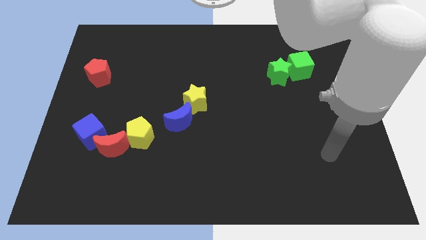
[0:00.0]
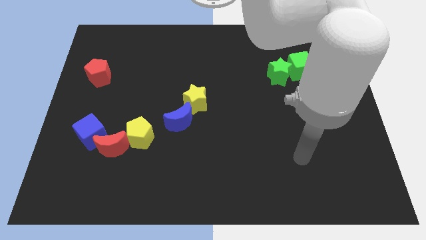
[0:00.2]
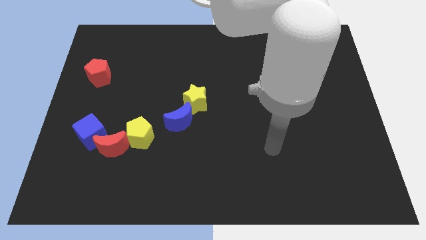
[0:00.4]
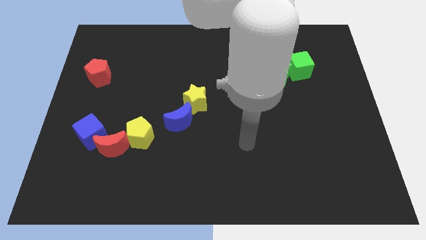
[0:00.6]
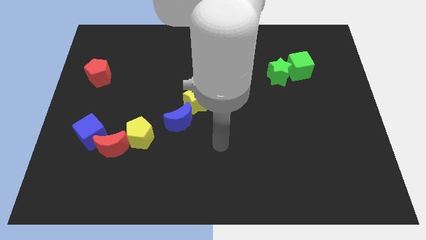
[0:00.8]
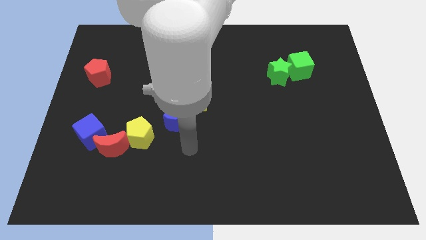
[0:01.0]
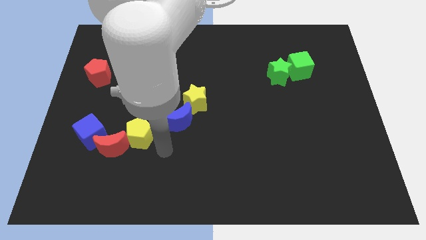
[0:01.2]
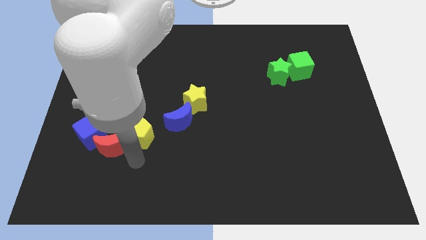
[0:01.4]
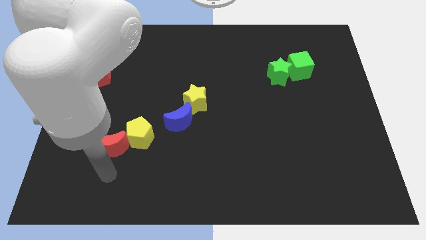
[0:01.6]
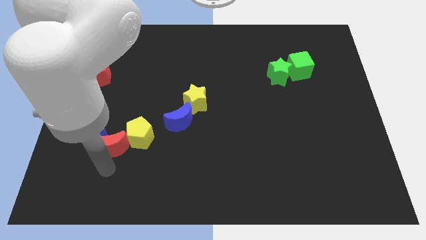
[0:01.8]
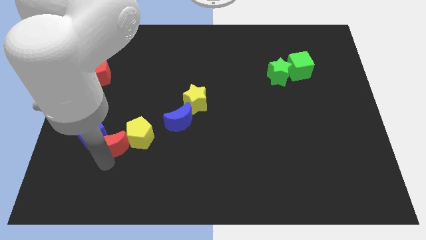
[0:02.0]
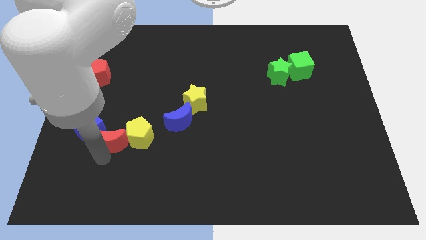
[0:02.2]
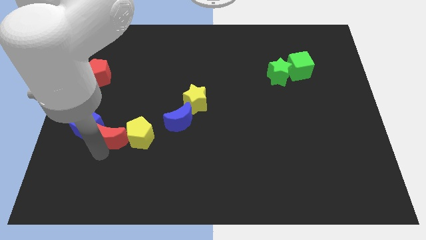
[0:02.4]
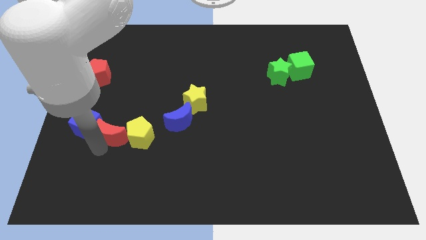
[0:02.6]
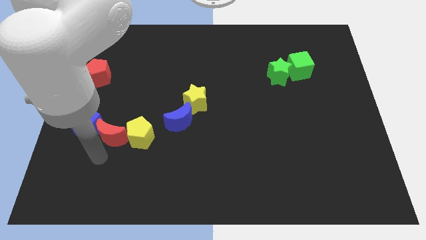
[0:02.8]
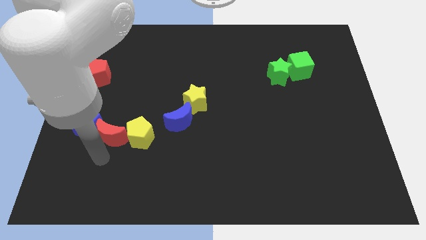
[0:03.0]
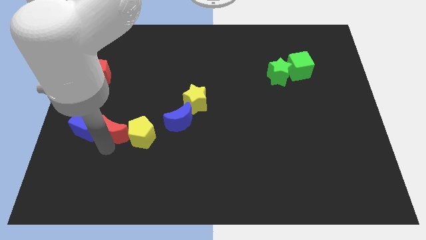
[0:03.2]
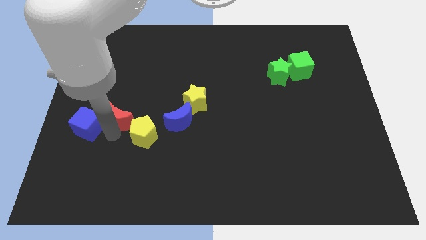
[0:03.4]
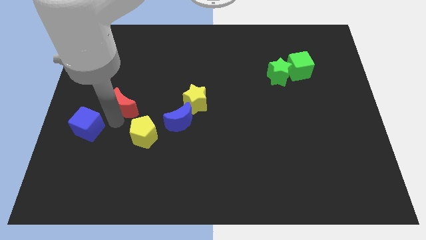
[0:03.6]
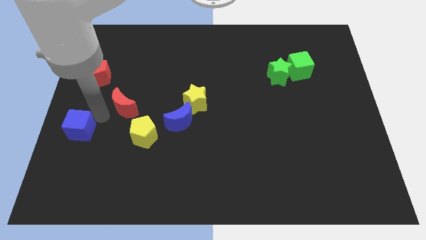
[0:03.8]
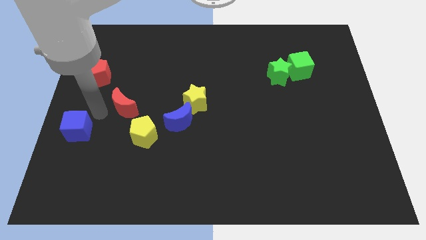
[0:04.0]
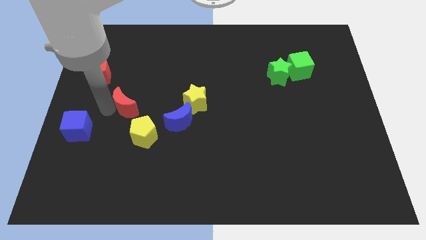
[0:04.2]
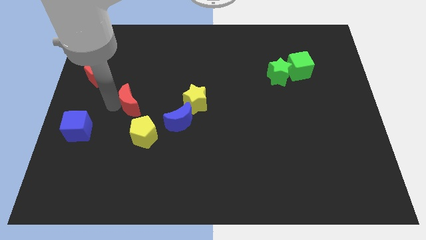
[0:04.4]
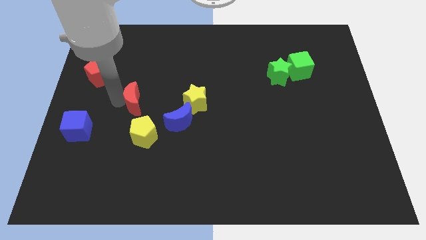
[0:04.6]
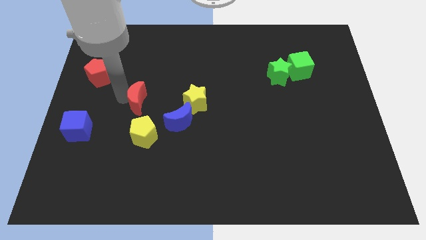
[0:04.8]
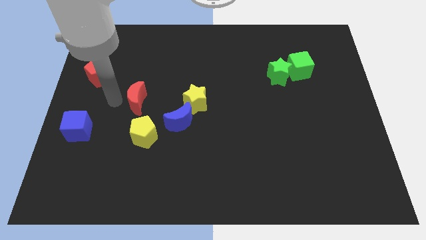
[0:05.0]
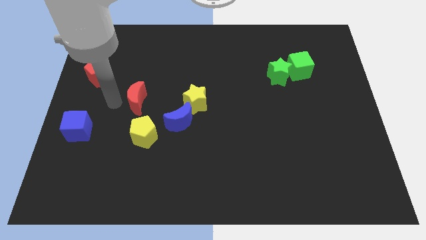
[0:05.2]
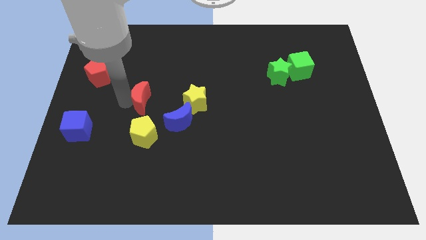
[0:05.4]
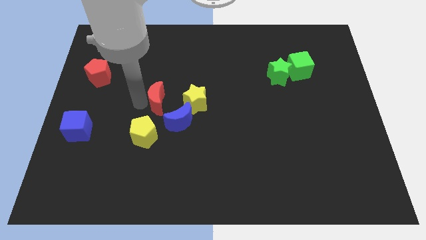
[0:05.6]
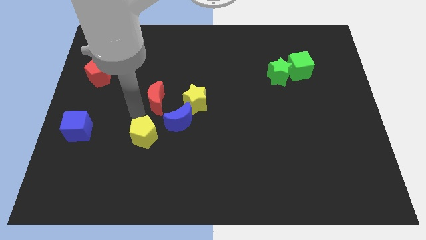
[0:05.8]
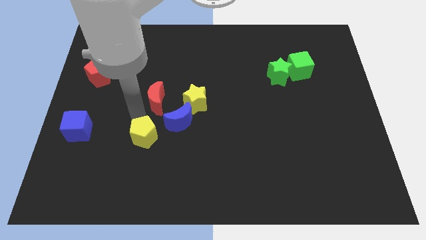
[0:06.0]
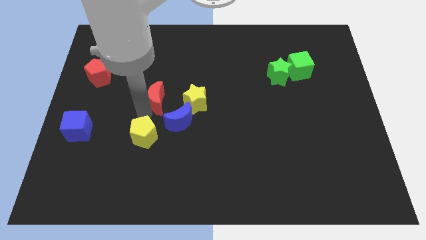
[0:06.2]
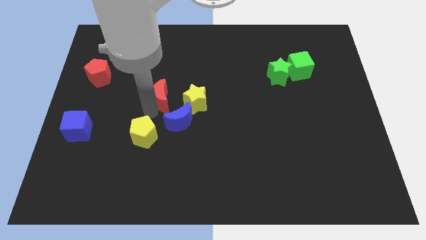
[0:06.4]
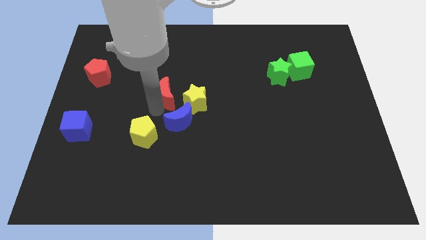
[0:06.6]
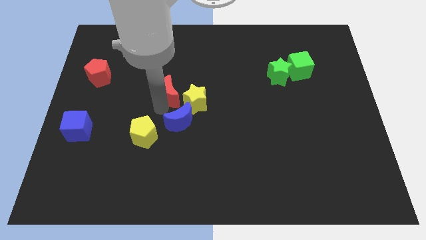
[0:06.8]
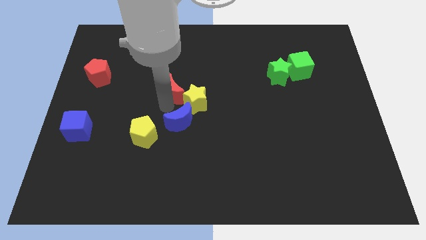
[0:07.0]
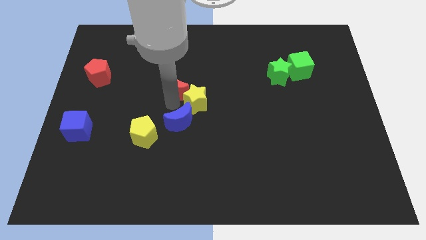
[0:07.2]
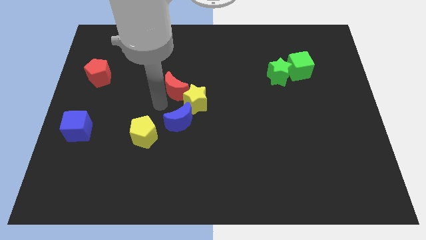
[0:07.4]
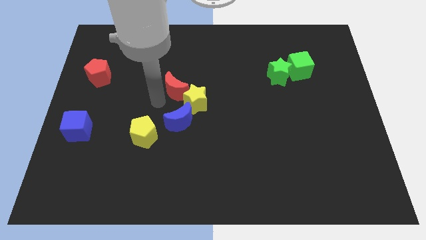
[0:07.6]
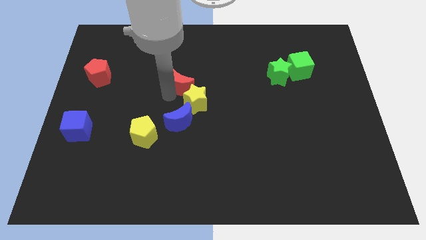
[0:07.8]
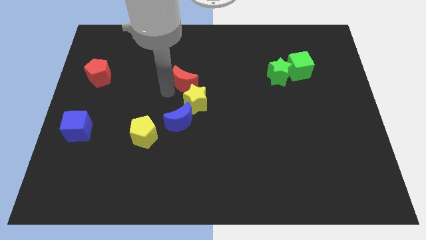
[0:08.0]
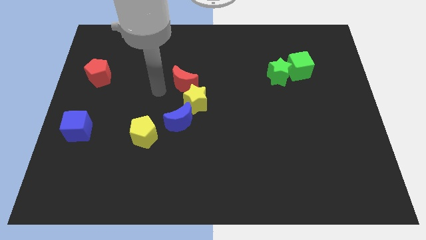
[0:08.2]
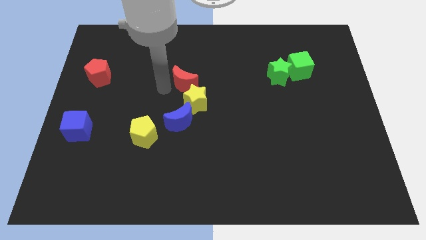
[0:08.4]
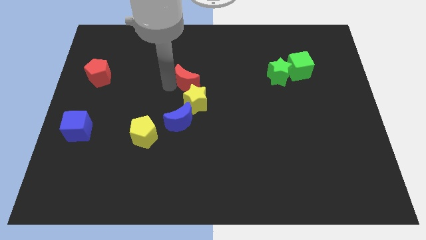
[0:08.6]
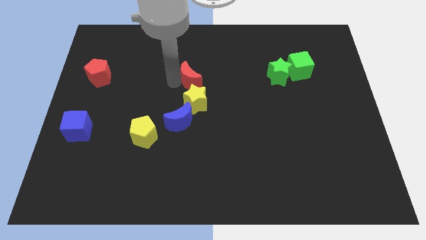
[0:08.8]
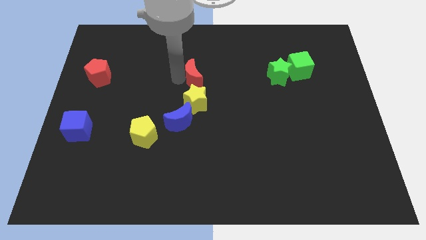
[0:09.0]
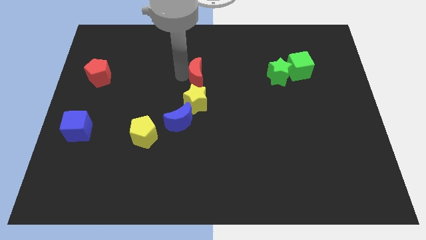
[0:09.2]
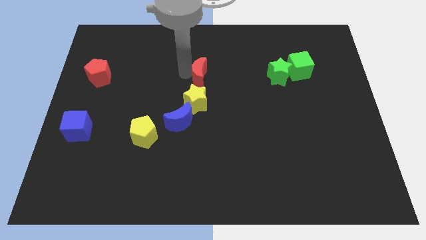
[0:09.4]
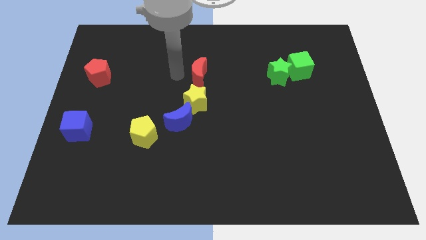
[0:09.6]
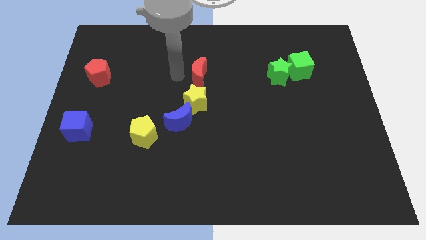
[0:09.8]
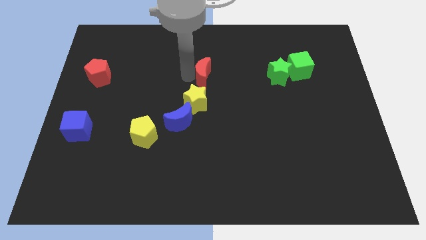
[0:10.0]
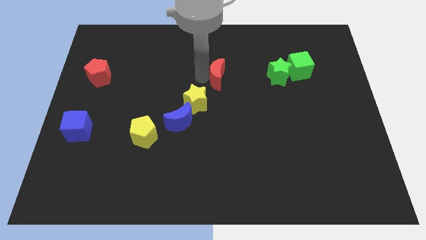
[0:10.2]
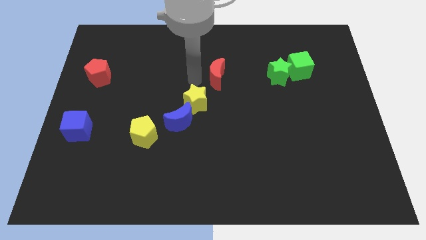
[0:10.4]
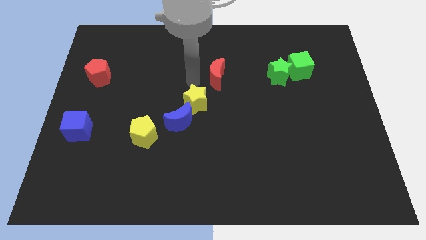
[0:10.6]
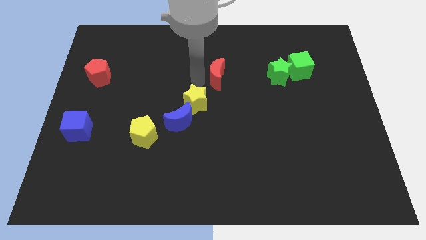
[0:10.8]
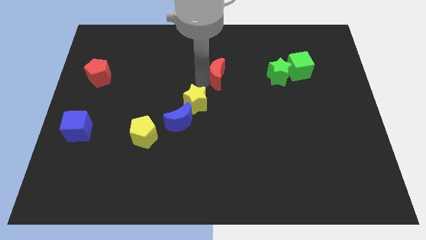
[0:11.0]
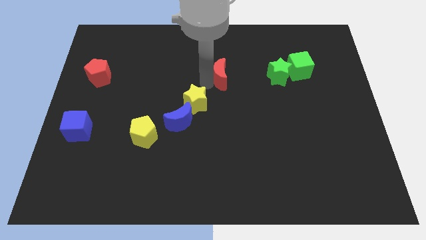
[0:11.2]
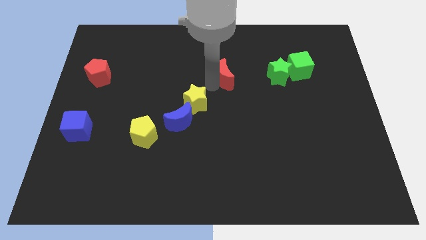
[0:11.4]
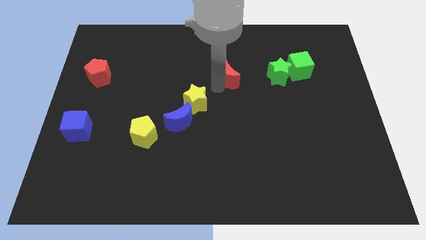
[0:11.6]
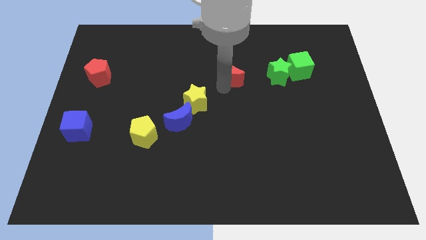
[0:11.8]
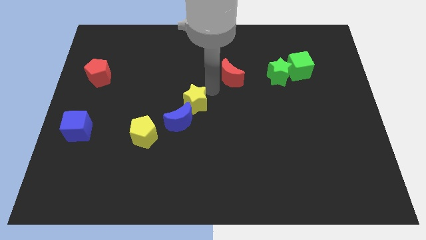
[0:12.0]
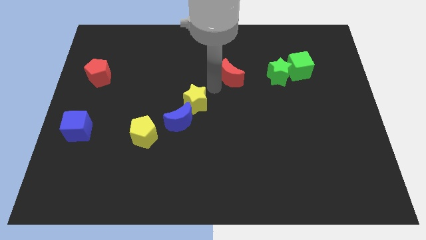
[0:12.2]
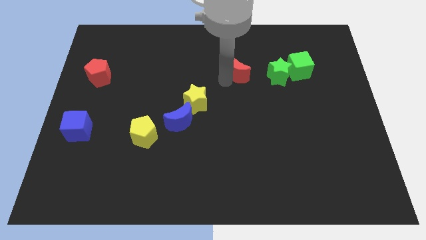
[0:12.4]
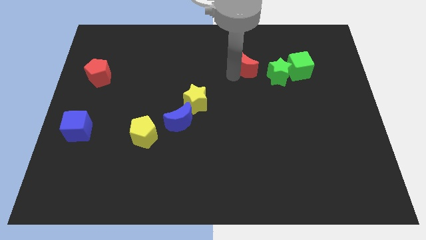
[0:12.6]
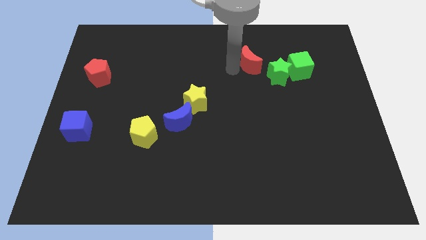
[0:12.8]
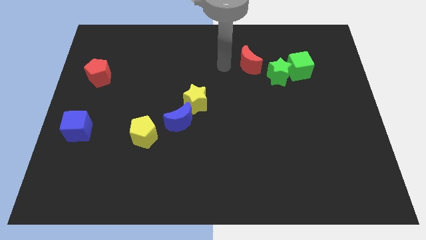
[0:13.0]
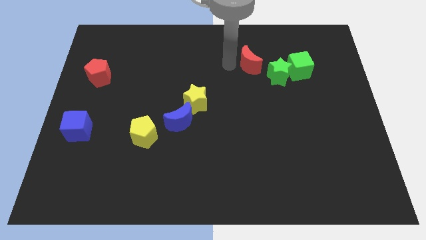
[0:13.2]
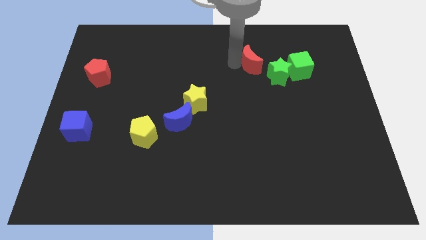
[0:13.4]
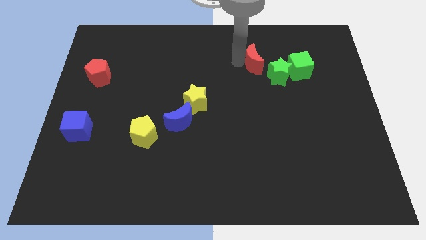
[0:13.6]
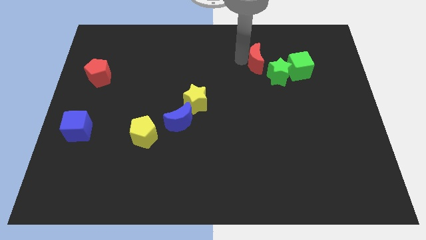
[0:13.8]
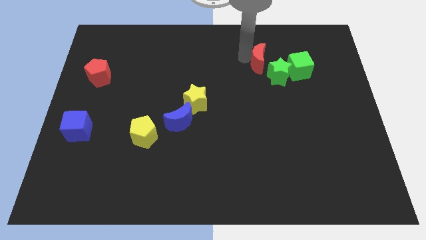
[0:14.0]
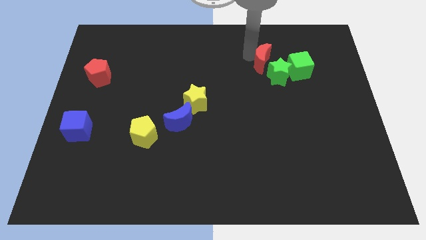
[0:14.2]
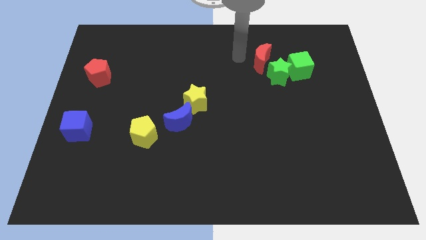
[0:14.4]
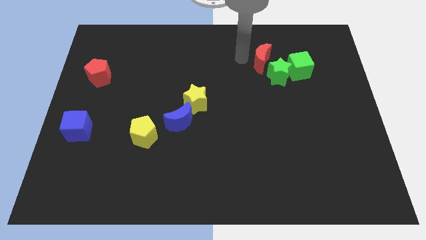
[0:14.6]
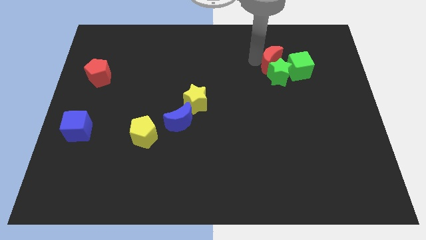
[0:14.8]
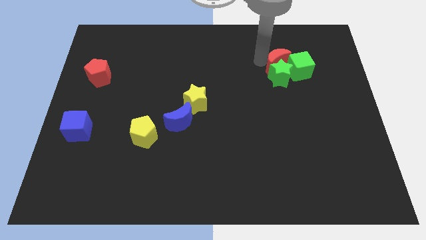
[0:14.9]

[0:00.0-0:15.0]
move the red moon to the green cube
